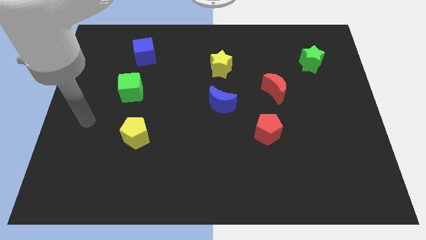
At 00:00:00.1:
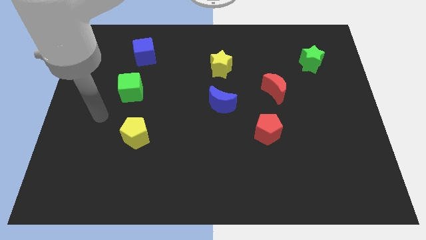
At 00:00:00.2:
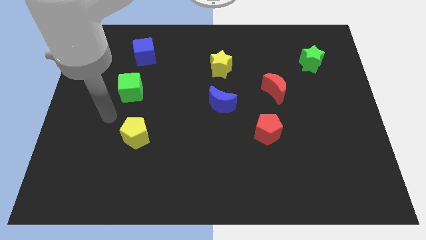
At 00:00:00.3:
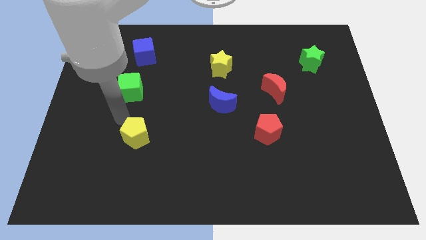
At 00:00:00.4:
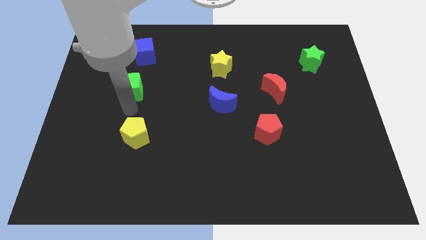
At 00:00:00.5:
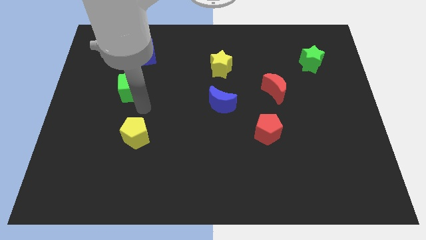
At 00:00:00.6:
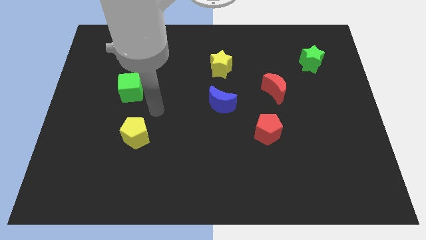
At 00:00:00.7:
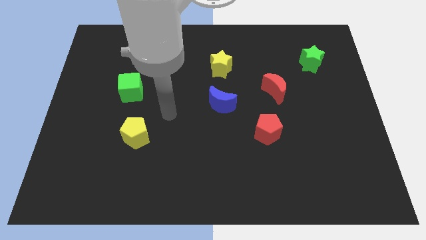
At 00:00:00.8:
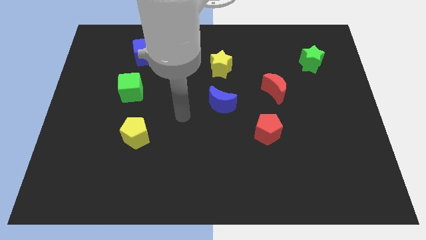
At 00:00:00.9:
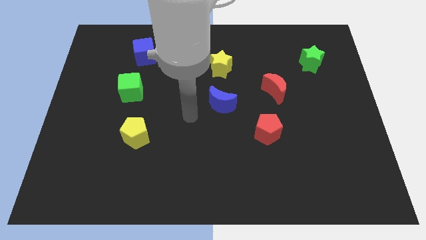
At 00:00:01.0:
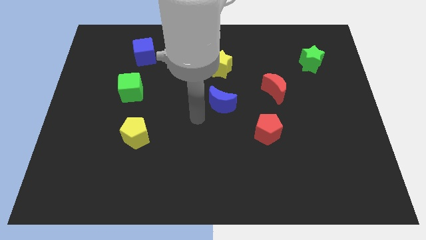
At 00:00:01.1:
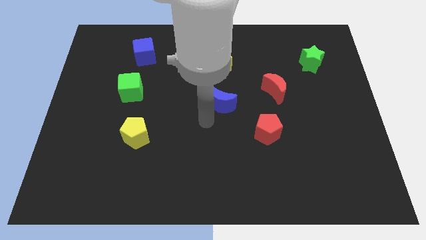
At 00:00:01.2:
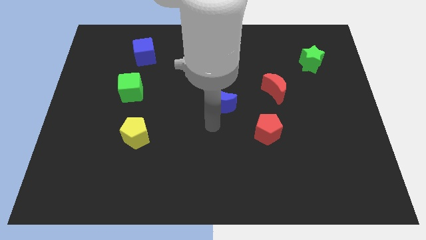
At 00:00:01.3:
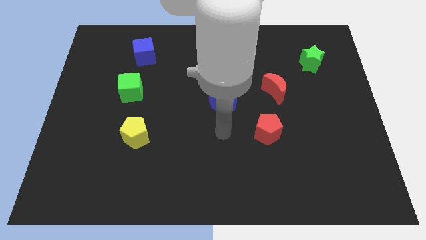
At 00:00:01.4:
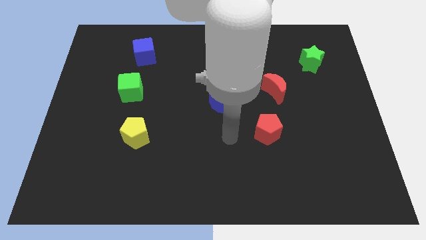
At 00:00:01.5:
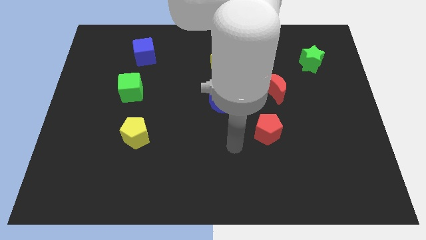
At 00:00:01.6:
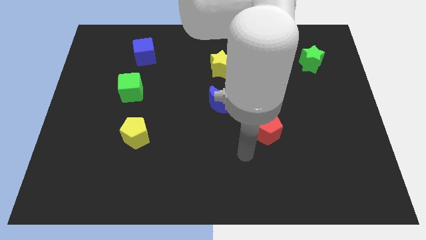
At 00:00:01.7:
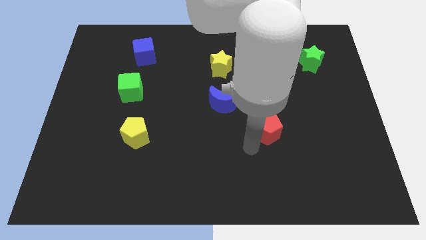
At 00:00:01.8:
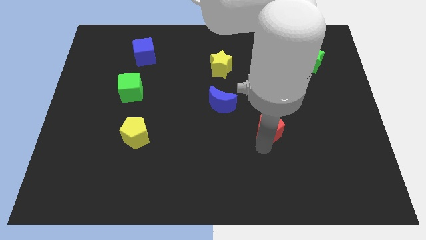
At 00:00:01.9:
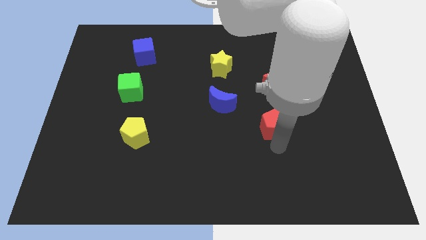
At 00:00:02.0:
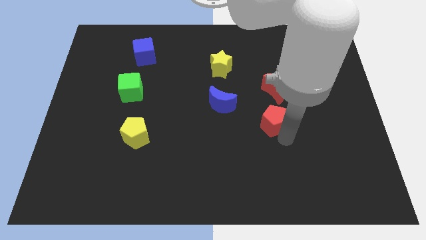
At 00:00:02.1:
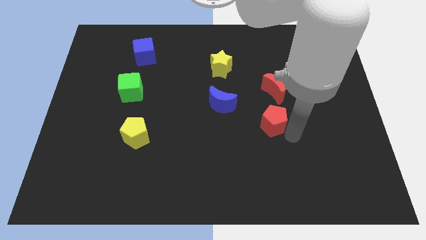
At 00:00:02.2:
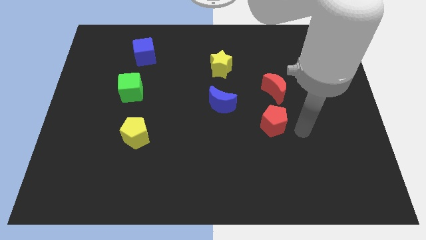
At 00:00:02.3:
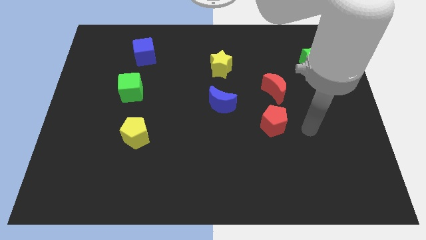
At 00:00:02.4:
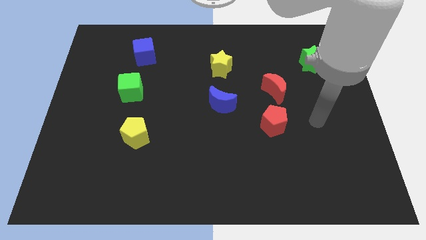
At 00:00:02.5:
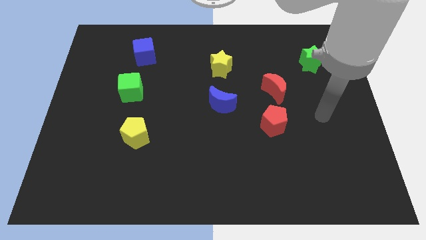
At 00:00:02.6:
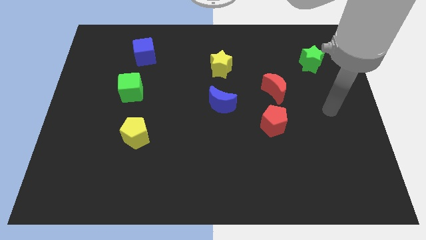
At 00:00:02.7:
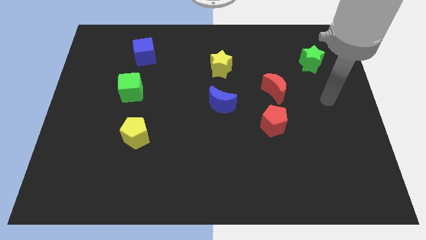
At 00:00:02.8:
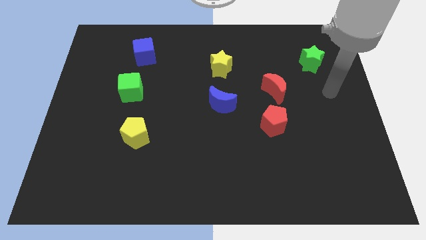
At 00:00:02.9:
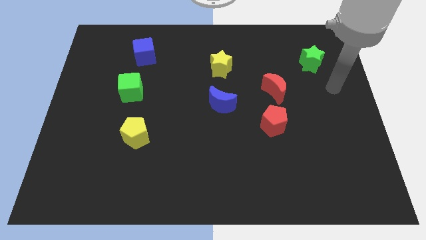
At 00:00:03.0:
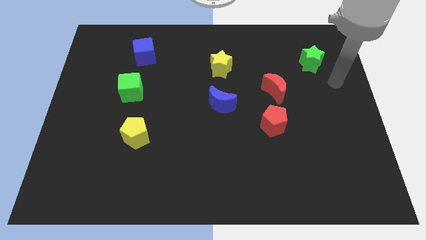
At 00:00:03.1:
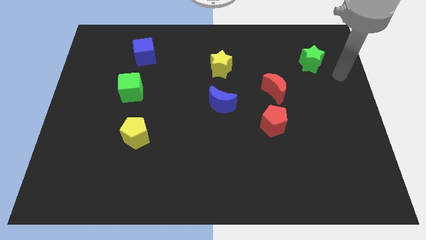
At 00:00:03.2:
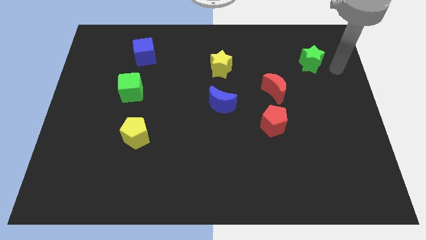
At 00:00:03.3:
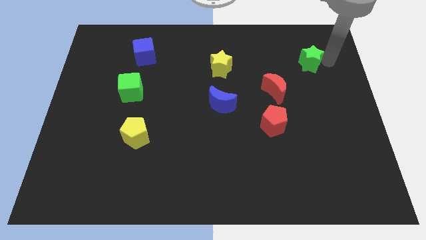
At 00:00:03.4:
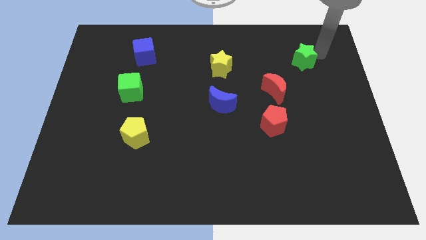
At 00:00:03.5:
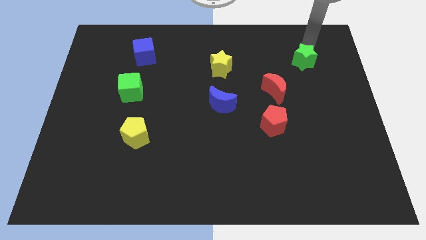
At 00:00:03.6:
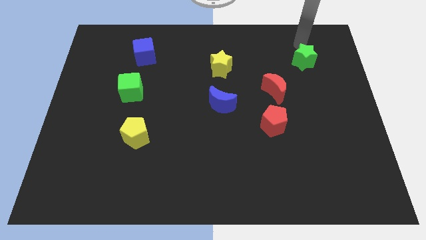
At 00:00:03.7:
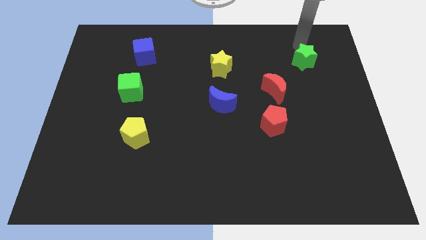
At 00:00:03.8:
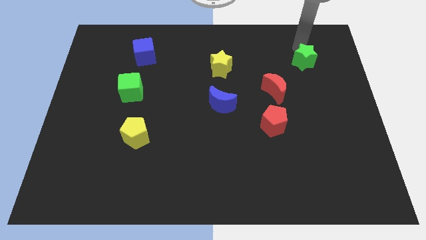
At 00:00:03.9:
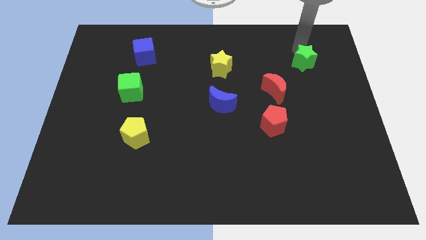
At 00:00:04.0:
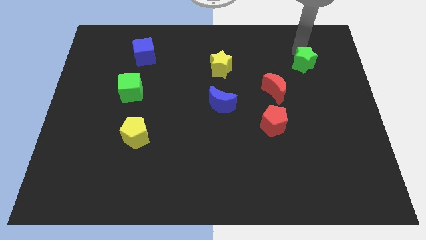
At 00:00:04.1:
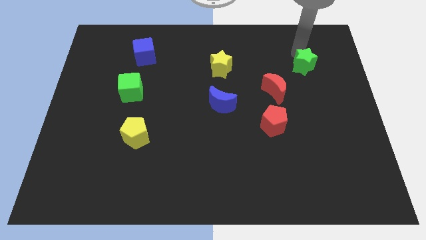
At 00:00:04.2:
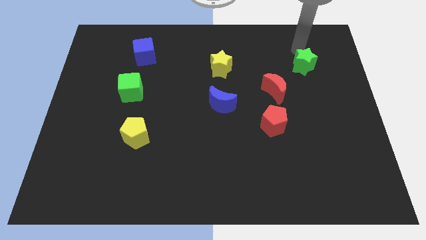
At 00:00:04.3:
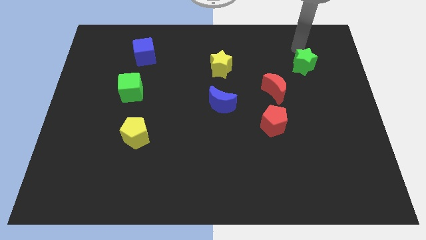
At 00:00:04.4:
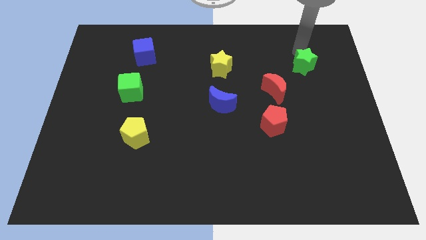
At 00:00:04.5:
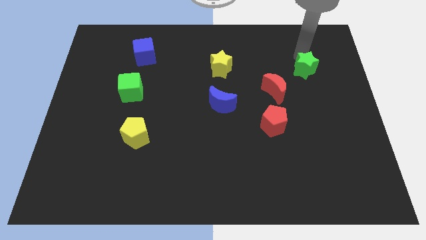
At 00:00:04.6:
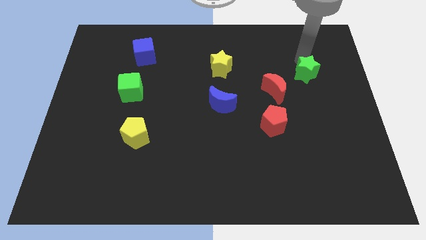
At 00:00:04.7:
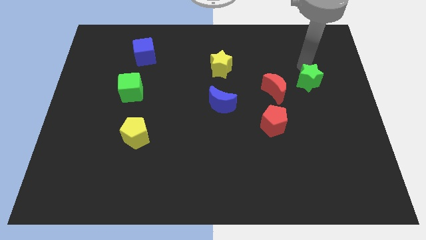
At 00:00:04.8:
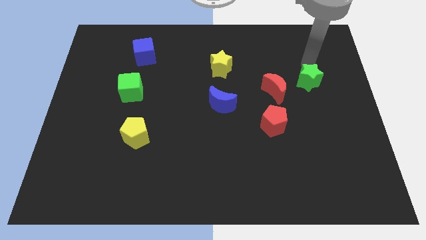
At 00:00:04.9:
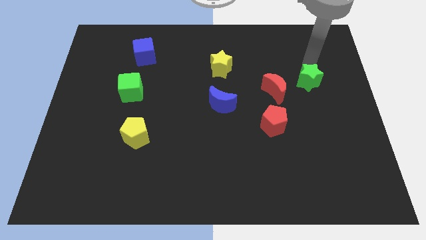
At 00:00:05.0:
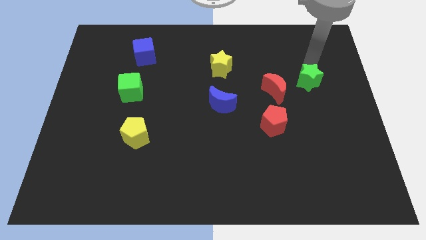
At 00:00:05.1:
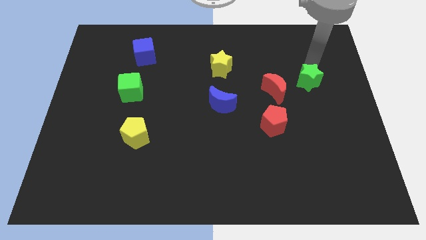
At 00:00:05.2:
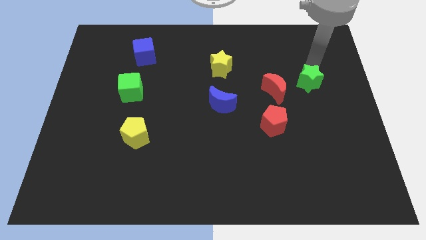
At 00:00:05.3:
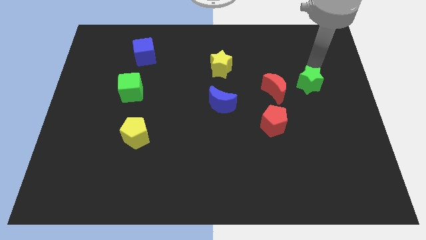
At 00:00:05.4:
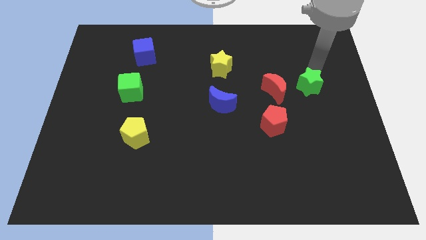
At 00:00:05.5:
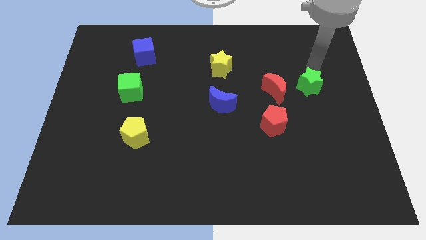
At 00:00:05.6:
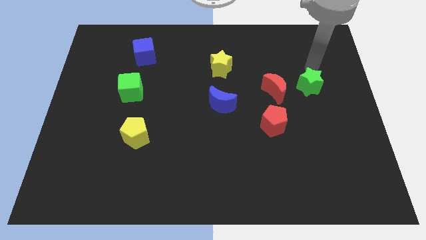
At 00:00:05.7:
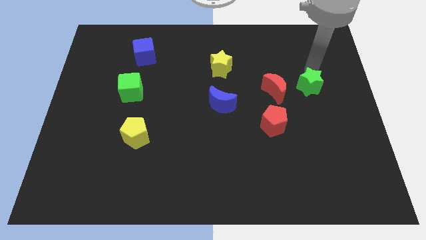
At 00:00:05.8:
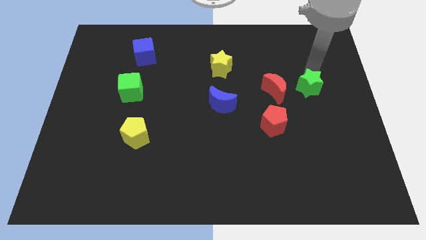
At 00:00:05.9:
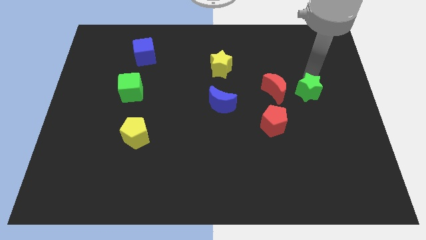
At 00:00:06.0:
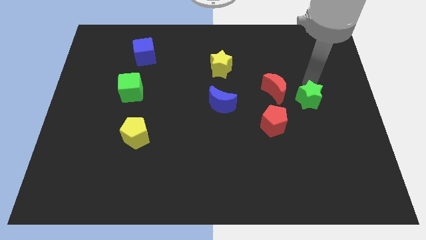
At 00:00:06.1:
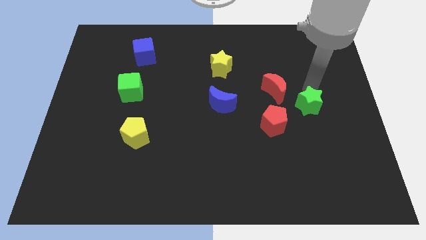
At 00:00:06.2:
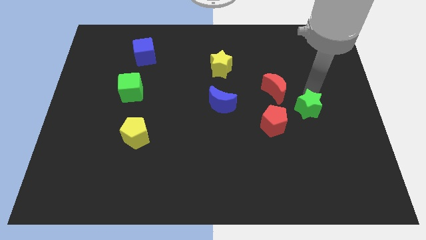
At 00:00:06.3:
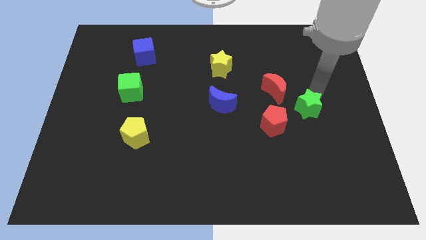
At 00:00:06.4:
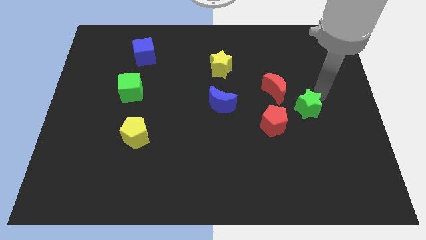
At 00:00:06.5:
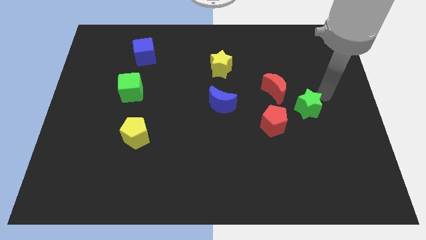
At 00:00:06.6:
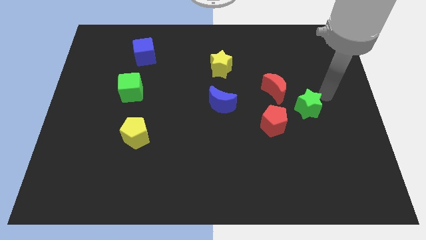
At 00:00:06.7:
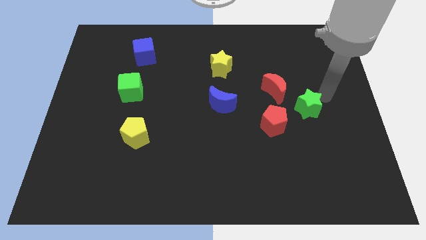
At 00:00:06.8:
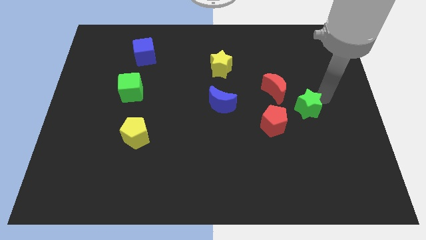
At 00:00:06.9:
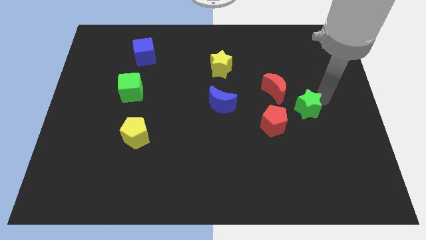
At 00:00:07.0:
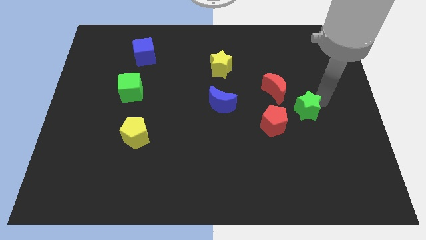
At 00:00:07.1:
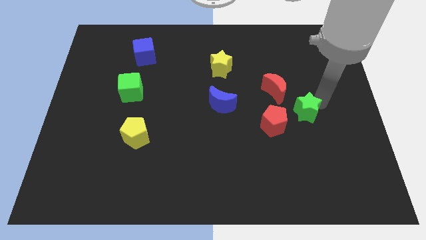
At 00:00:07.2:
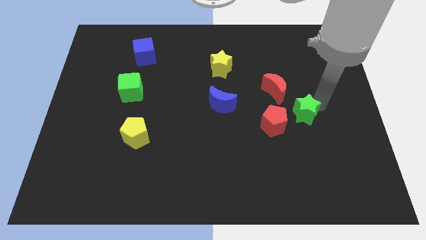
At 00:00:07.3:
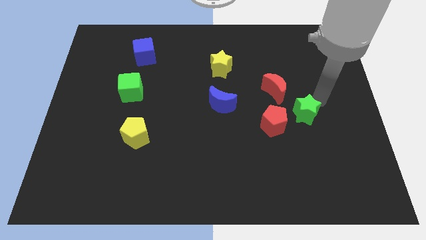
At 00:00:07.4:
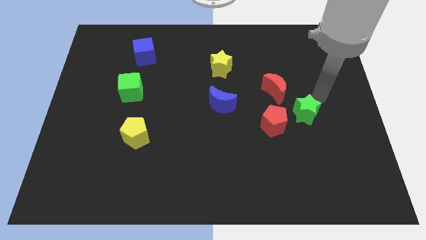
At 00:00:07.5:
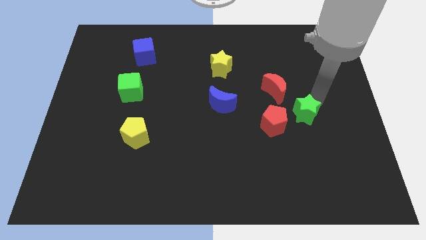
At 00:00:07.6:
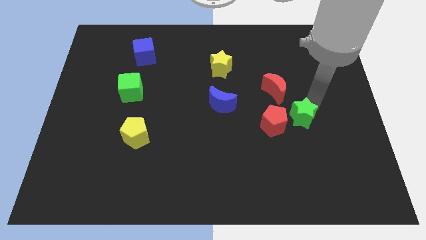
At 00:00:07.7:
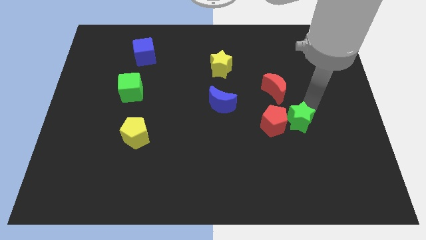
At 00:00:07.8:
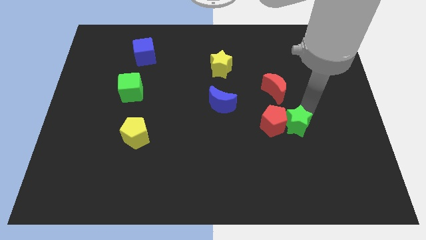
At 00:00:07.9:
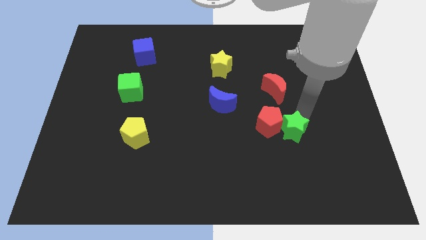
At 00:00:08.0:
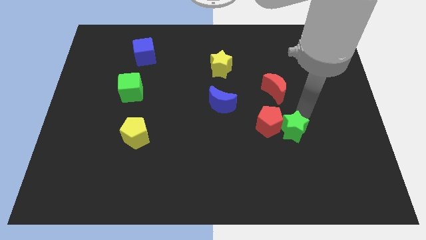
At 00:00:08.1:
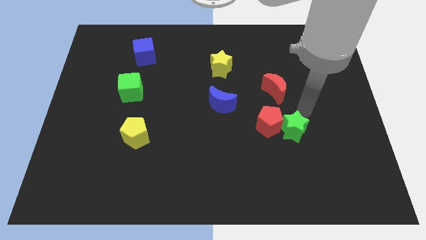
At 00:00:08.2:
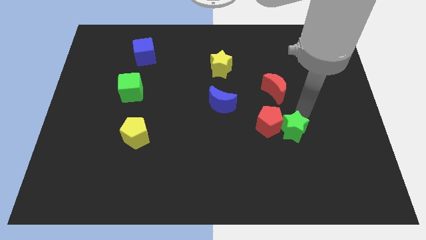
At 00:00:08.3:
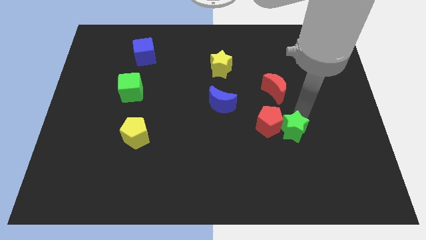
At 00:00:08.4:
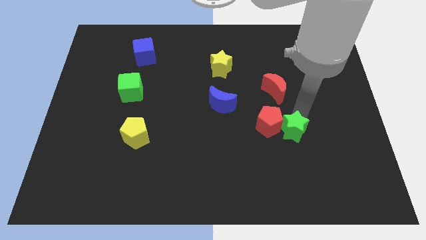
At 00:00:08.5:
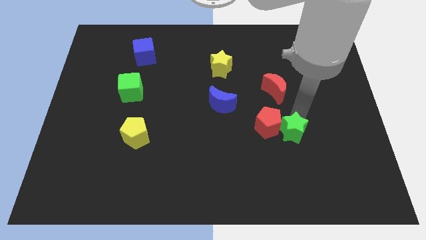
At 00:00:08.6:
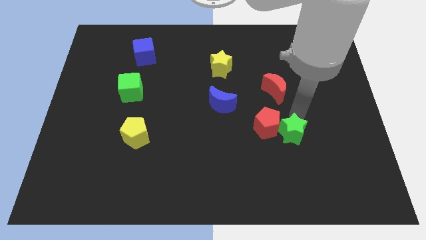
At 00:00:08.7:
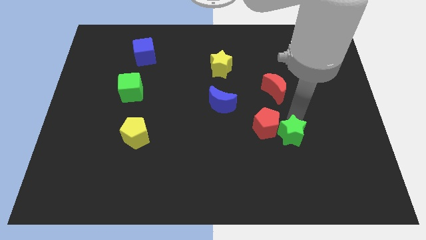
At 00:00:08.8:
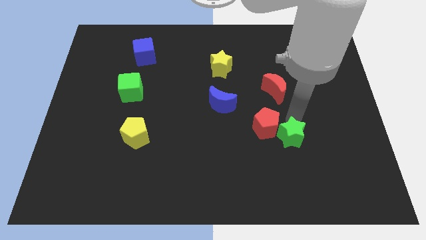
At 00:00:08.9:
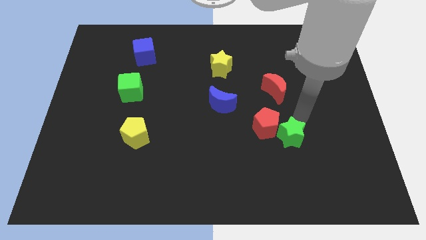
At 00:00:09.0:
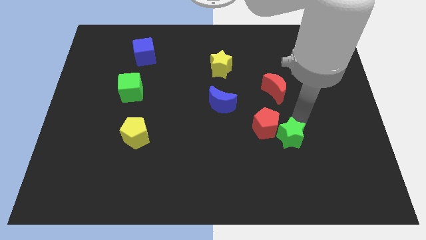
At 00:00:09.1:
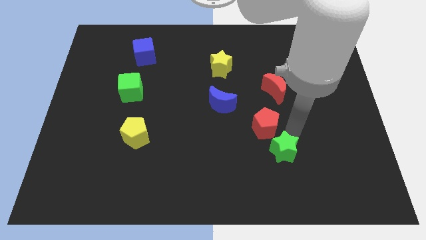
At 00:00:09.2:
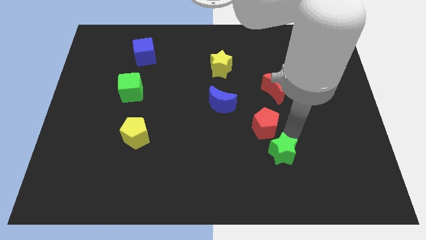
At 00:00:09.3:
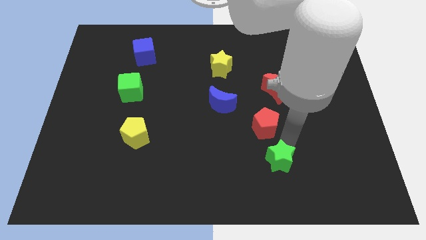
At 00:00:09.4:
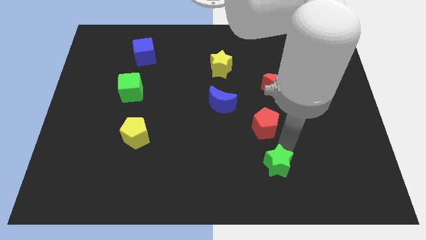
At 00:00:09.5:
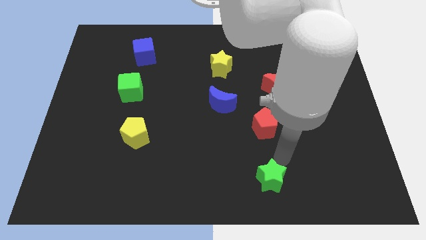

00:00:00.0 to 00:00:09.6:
move the green star to the bottom side
